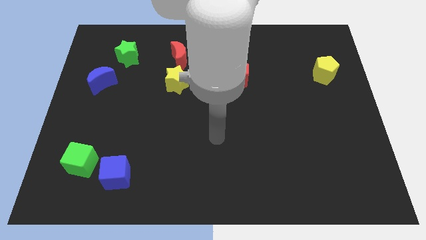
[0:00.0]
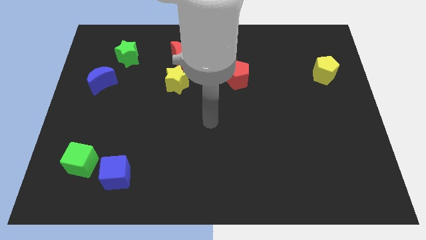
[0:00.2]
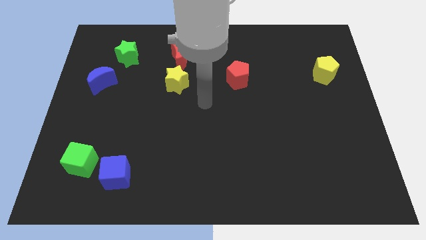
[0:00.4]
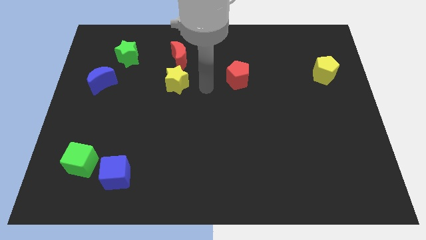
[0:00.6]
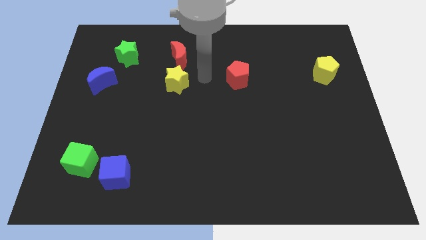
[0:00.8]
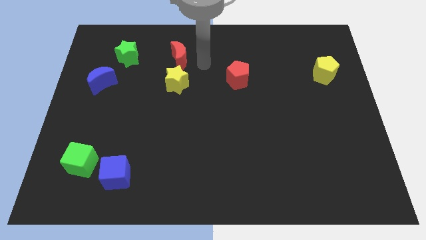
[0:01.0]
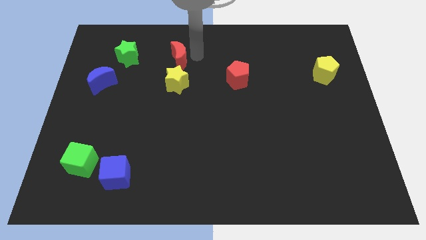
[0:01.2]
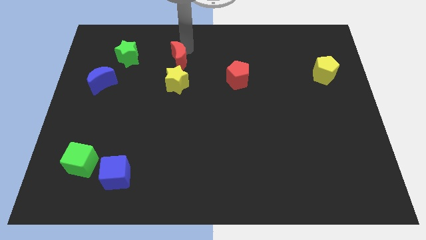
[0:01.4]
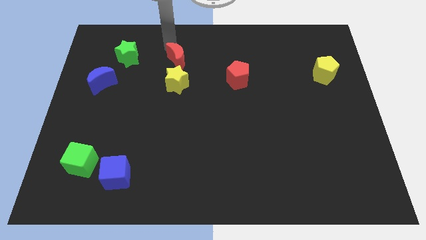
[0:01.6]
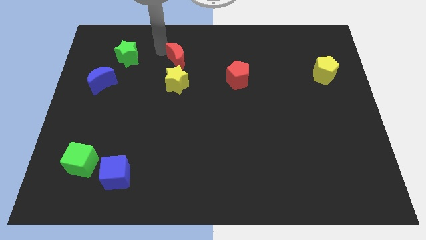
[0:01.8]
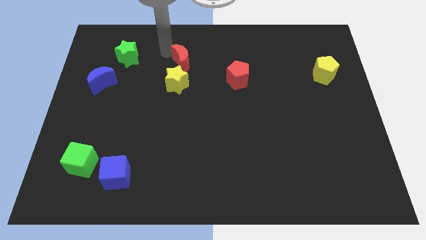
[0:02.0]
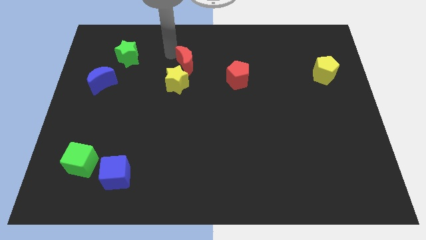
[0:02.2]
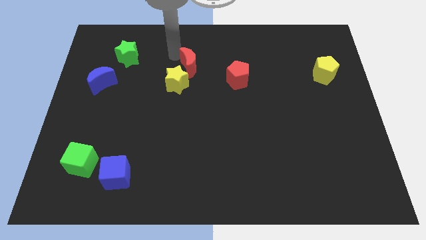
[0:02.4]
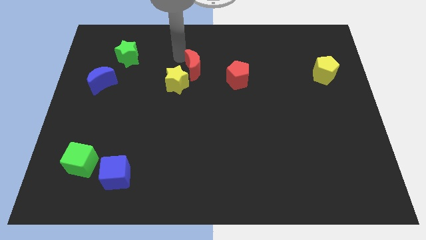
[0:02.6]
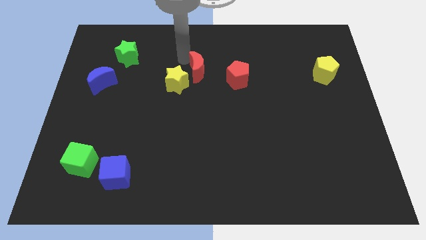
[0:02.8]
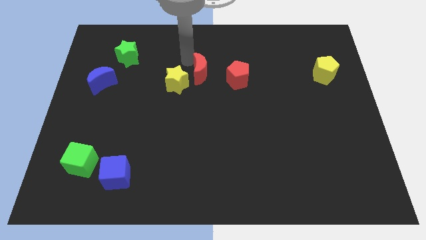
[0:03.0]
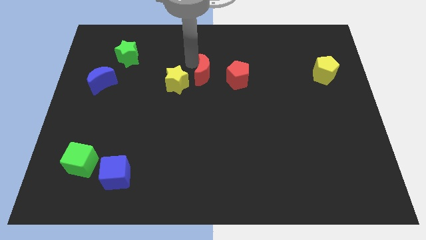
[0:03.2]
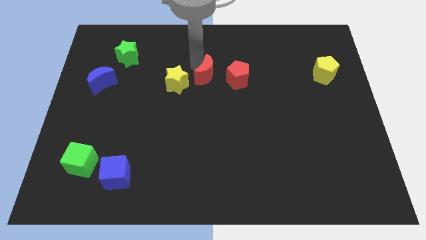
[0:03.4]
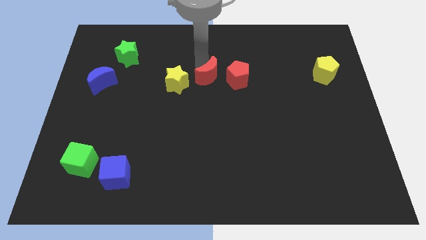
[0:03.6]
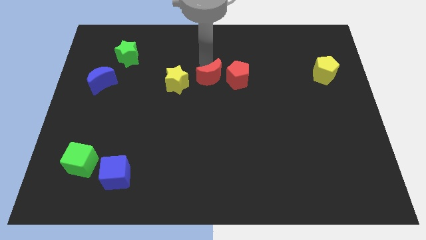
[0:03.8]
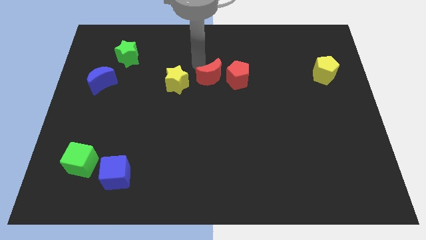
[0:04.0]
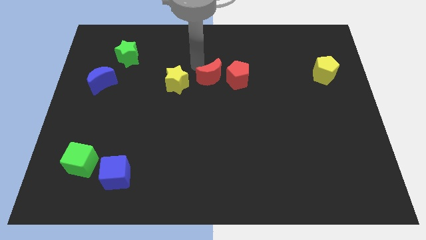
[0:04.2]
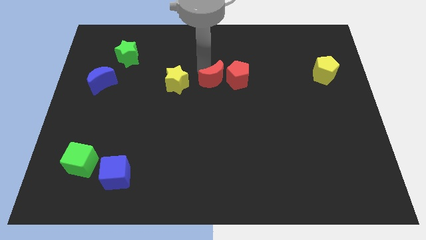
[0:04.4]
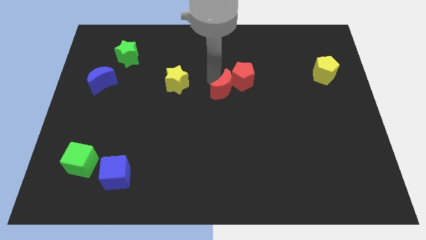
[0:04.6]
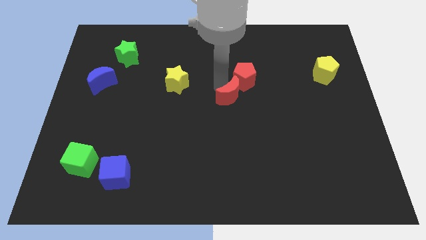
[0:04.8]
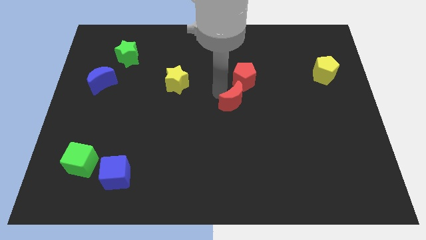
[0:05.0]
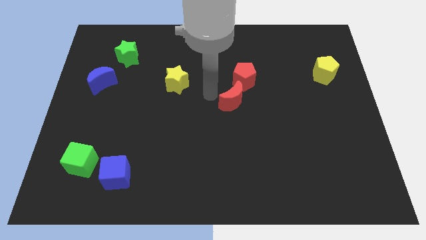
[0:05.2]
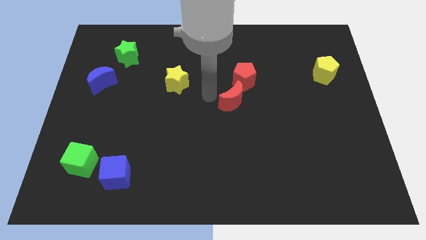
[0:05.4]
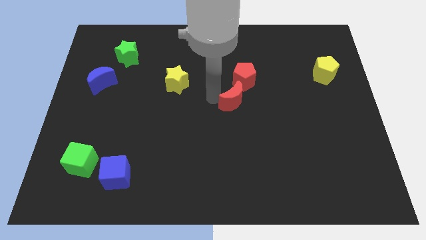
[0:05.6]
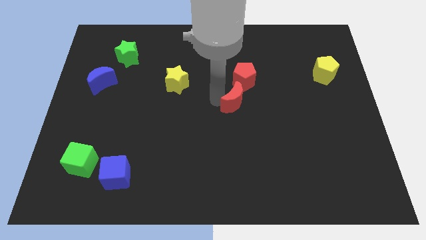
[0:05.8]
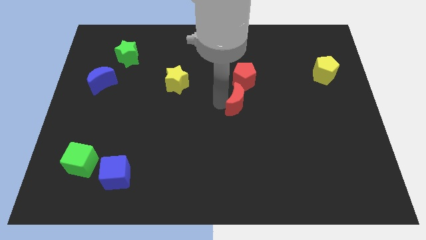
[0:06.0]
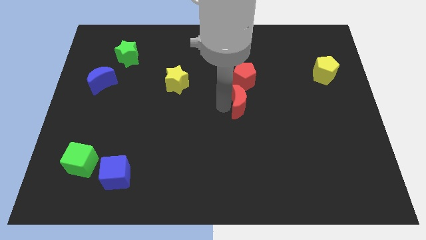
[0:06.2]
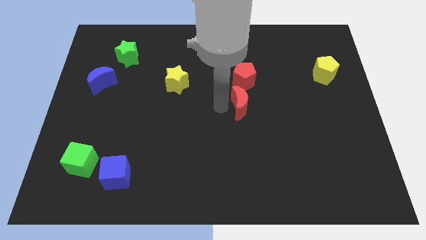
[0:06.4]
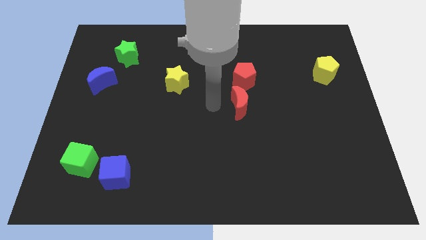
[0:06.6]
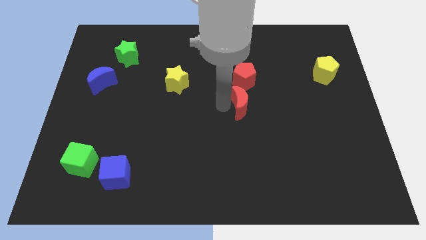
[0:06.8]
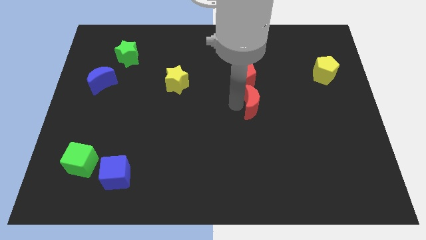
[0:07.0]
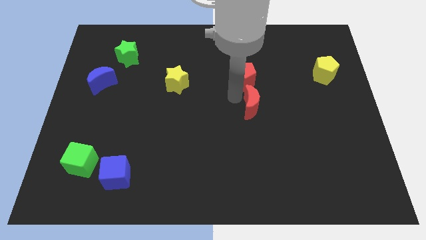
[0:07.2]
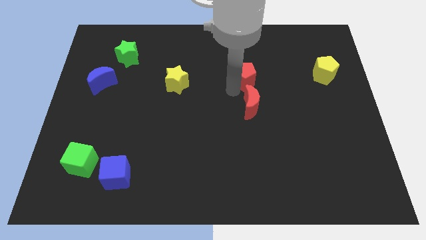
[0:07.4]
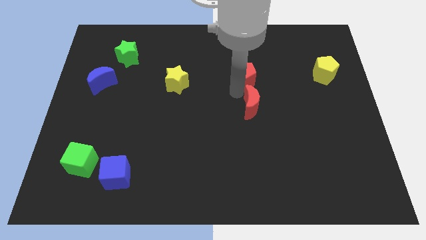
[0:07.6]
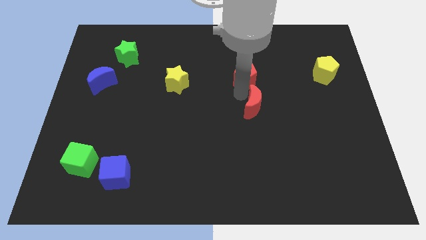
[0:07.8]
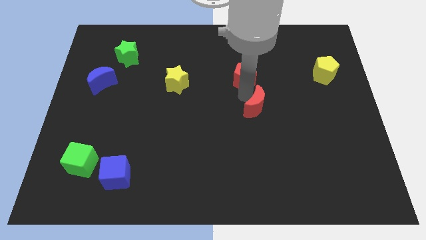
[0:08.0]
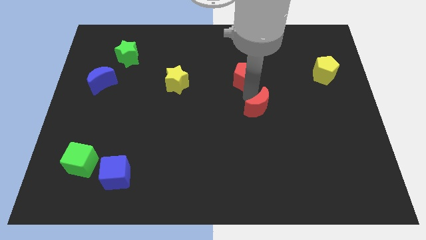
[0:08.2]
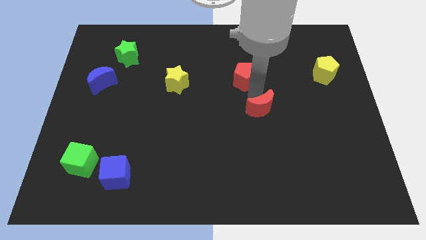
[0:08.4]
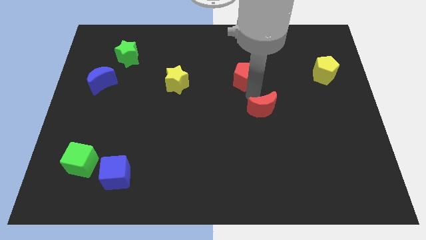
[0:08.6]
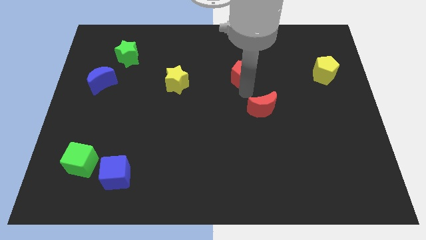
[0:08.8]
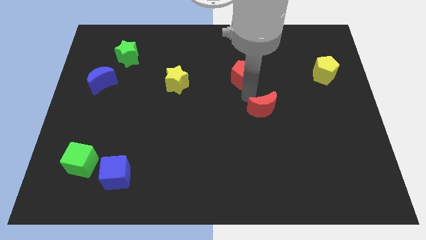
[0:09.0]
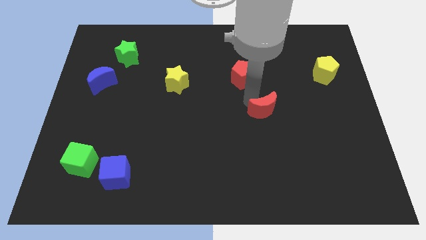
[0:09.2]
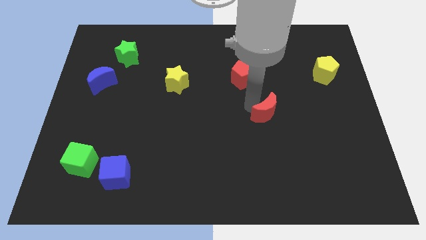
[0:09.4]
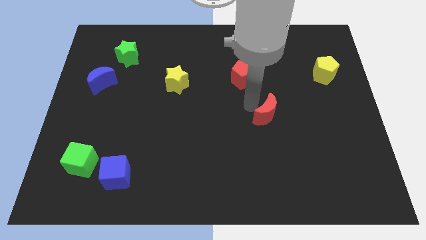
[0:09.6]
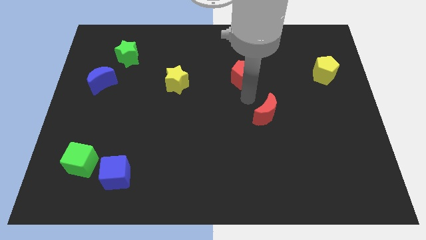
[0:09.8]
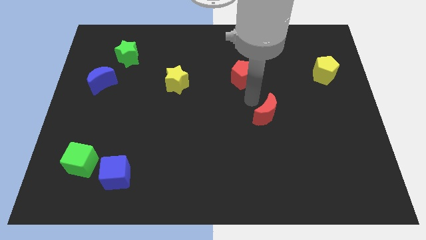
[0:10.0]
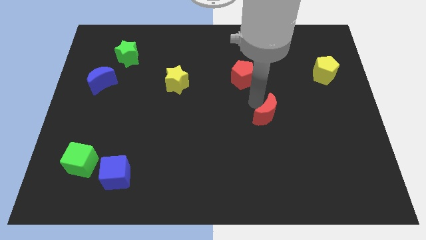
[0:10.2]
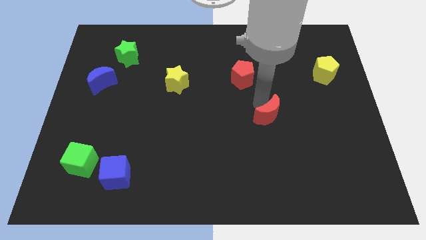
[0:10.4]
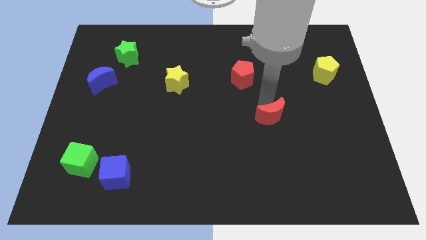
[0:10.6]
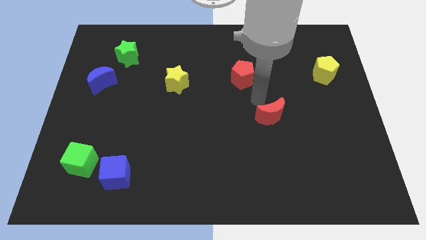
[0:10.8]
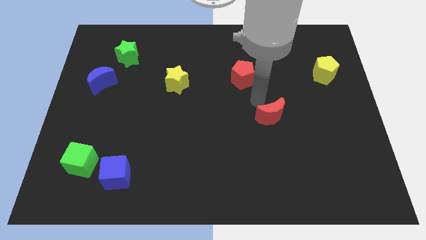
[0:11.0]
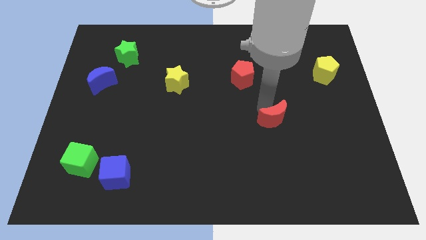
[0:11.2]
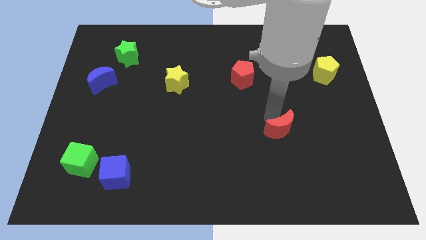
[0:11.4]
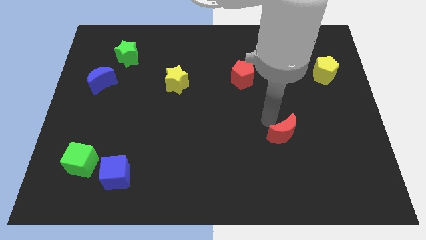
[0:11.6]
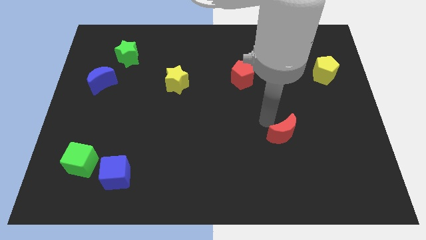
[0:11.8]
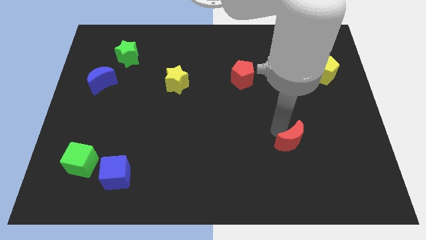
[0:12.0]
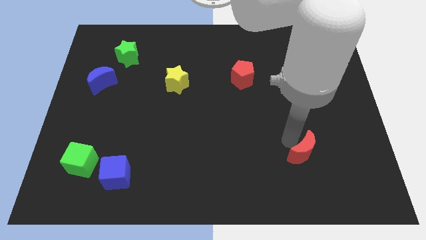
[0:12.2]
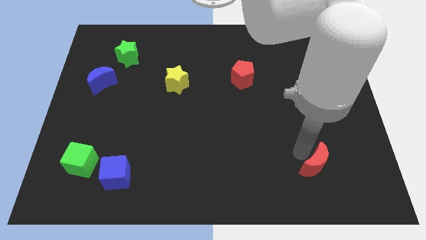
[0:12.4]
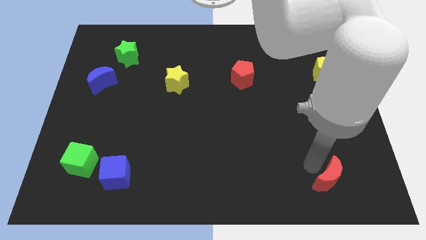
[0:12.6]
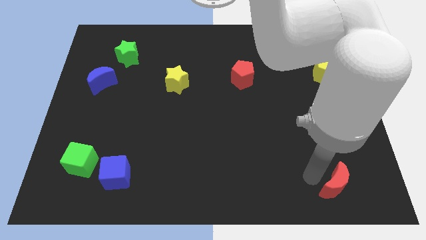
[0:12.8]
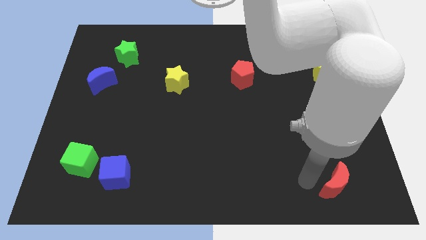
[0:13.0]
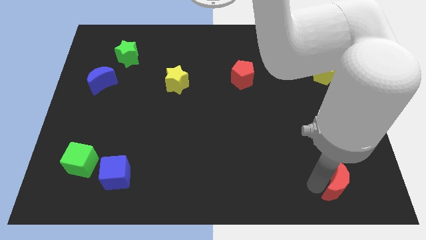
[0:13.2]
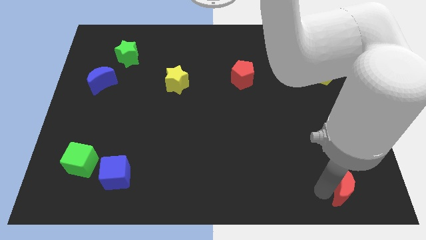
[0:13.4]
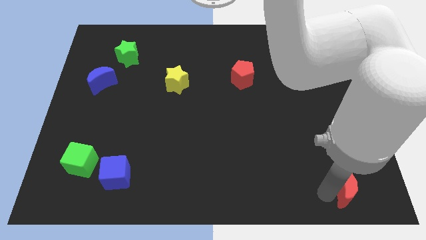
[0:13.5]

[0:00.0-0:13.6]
push the red moon to the lower right corner
